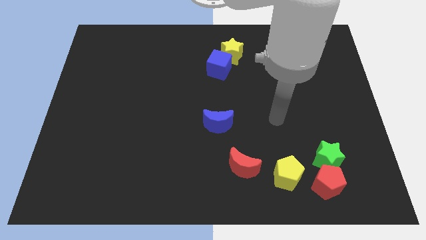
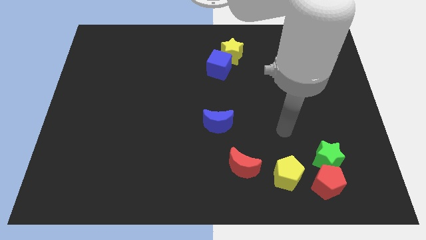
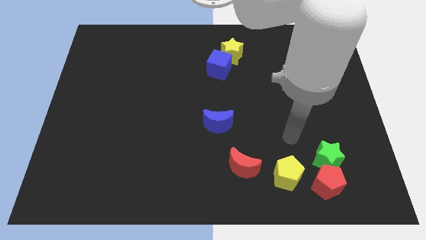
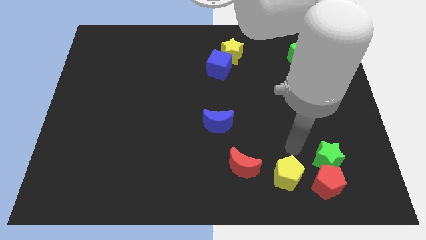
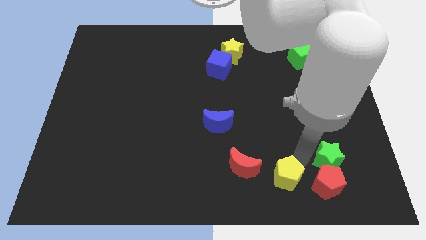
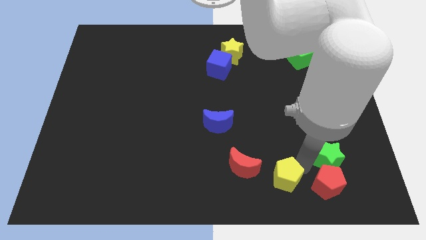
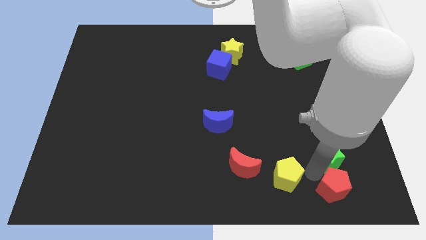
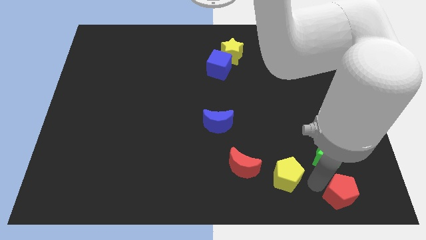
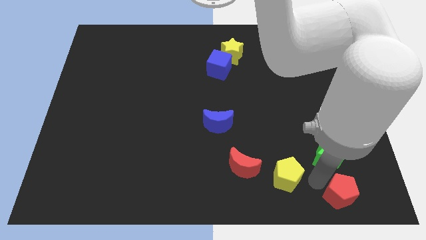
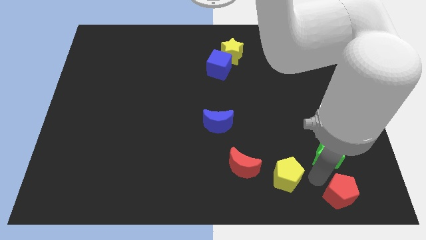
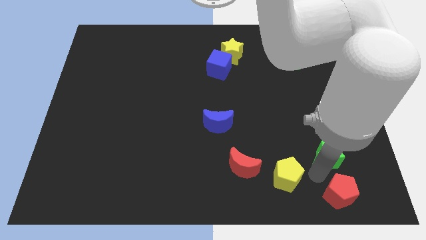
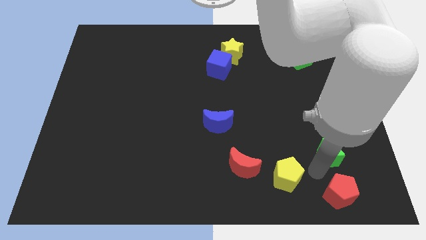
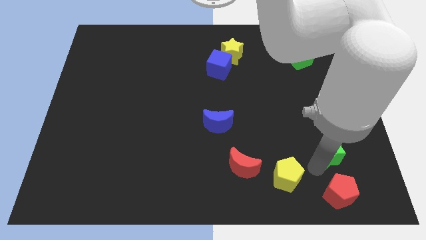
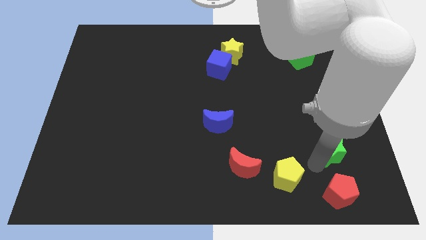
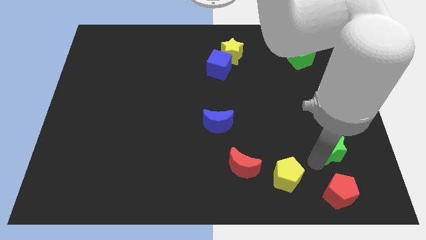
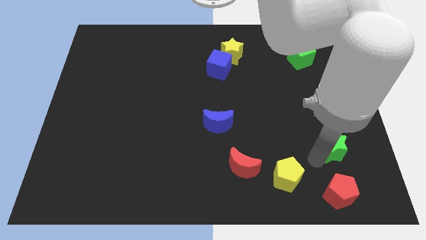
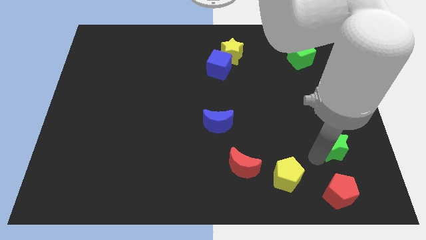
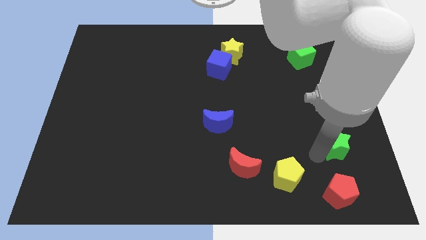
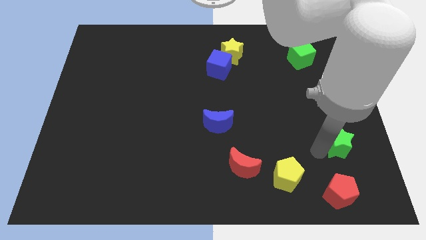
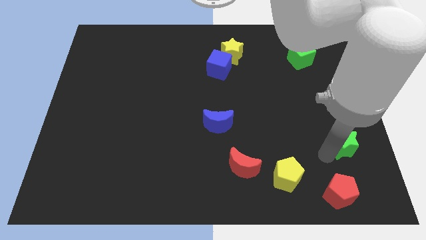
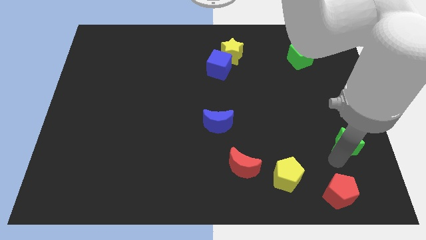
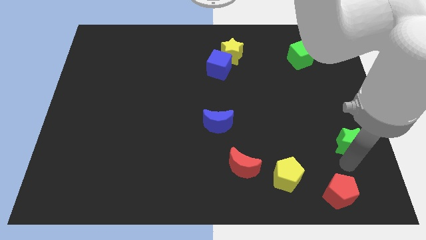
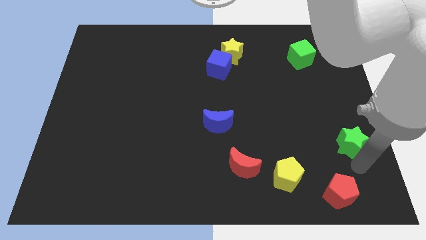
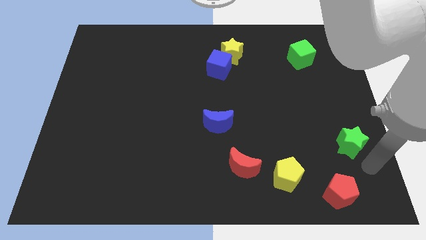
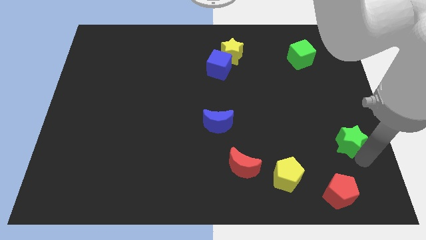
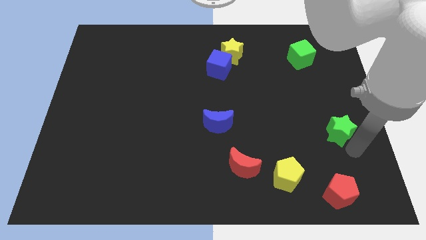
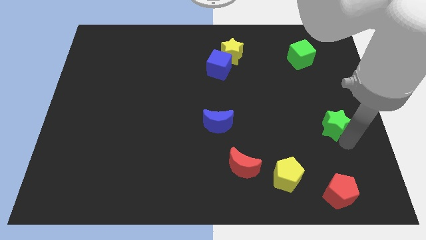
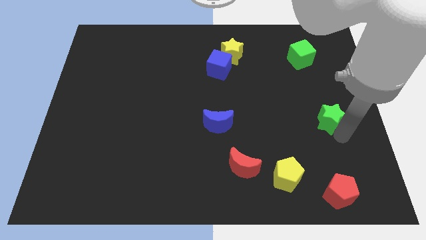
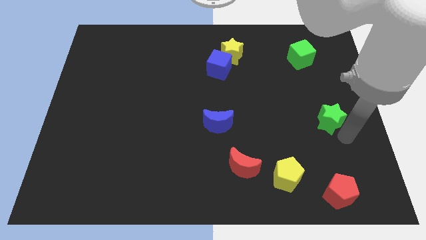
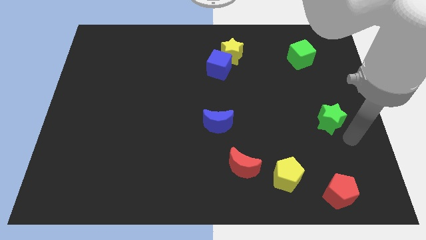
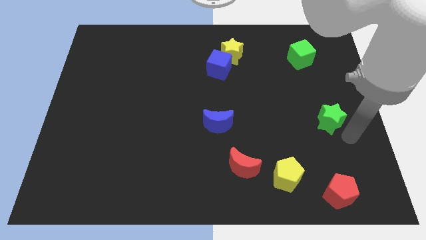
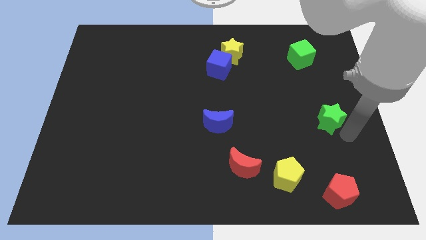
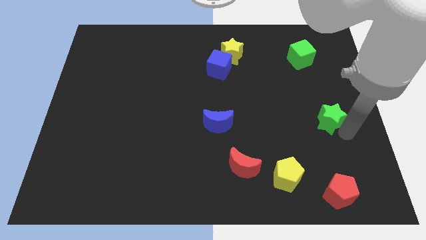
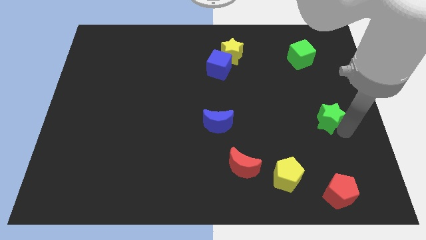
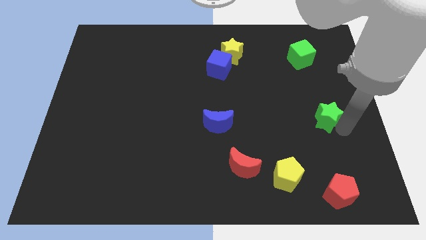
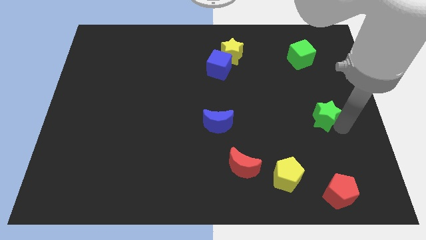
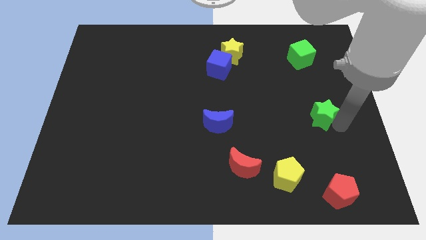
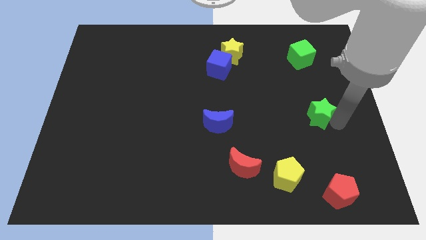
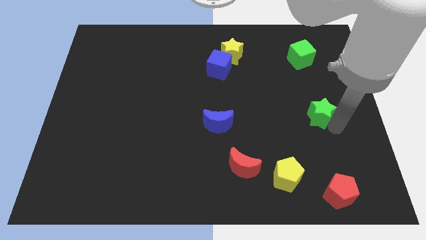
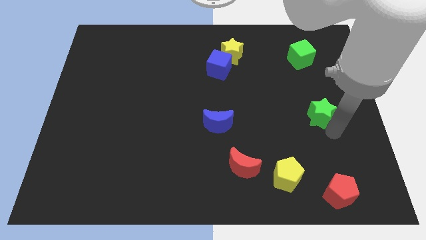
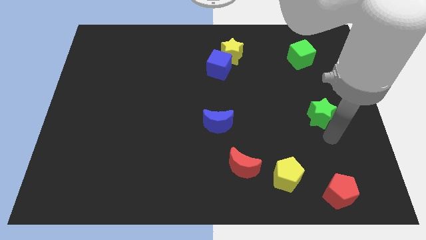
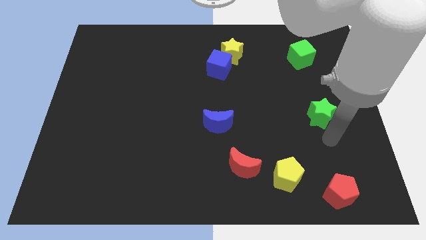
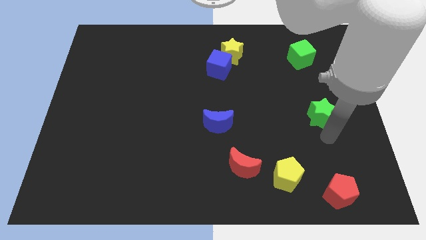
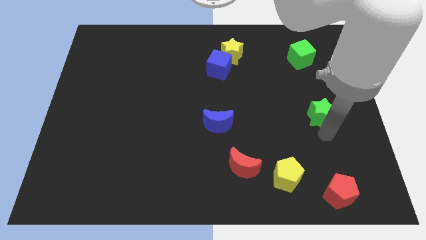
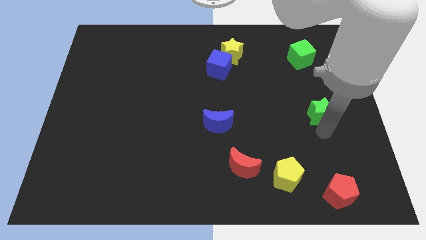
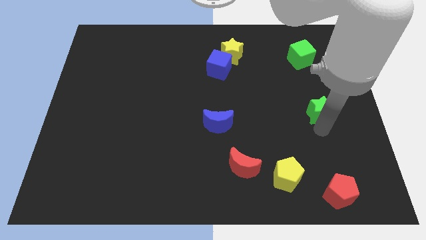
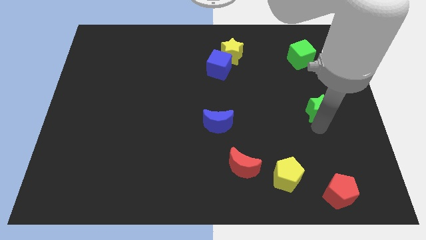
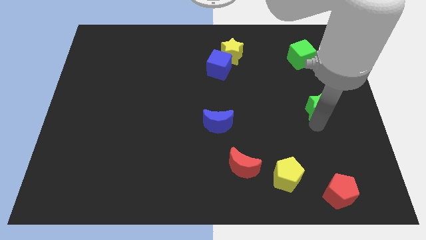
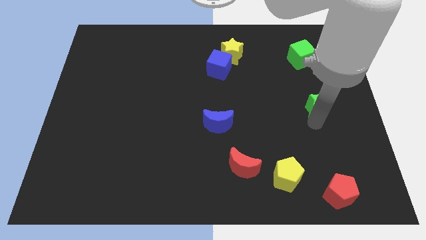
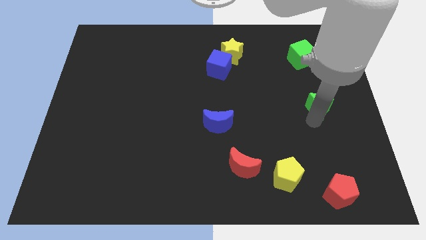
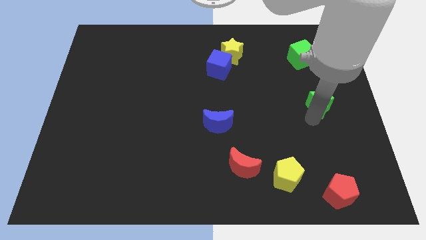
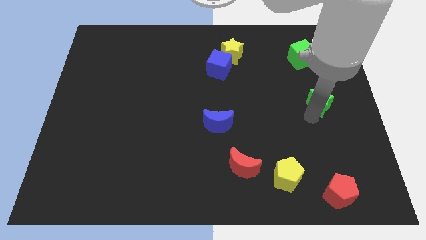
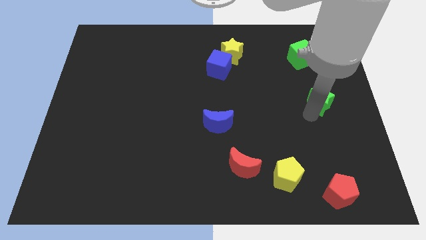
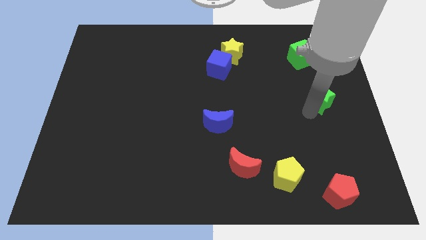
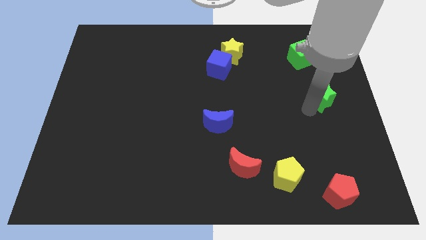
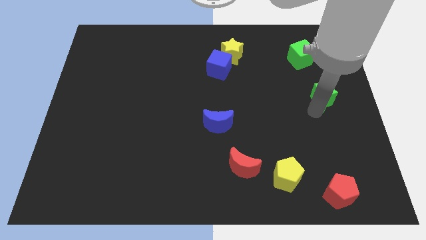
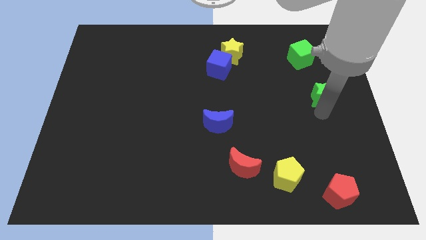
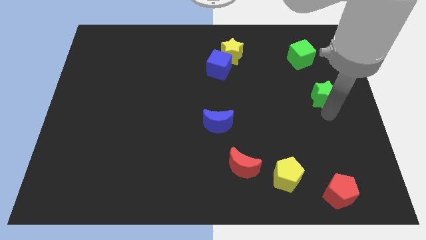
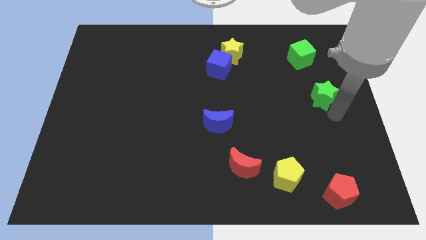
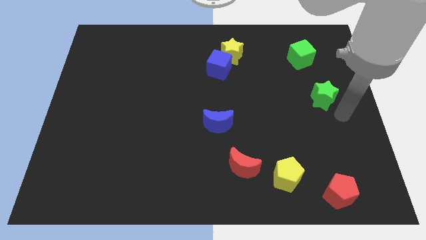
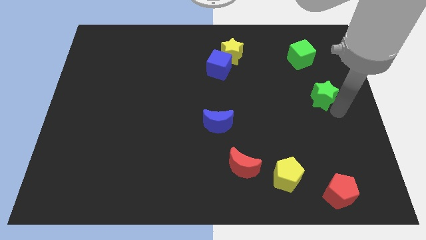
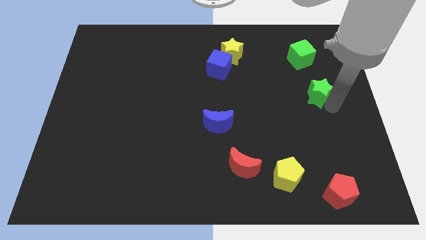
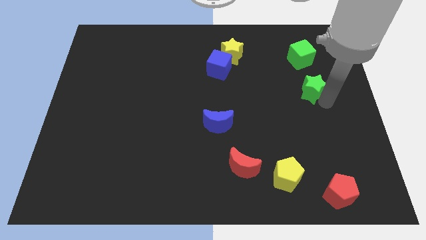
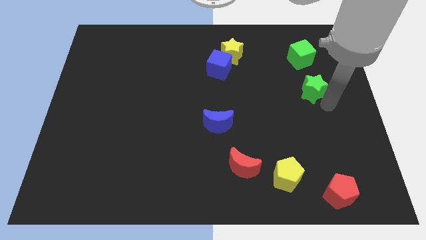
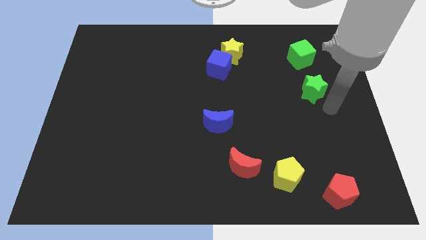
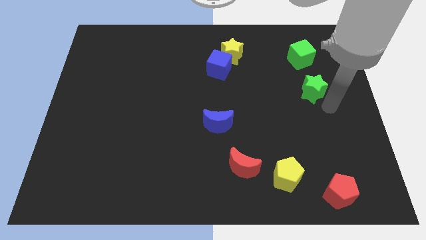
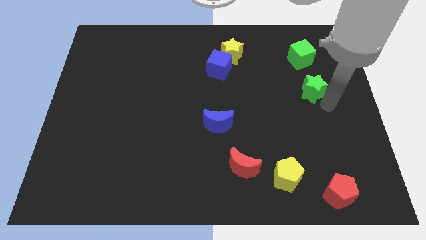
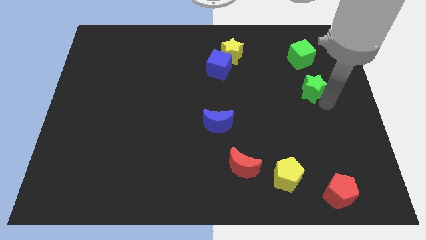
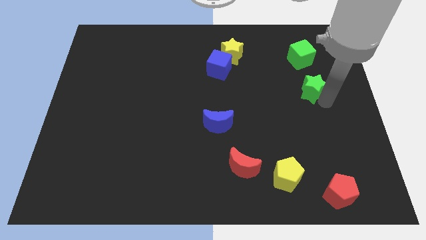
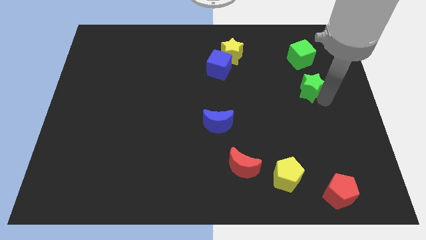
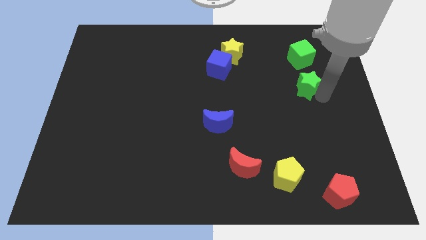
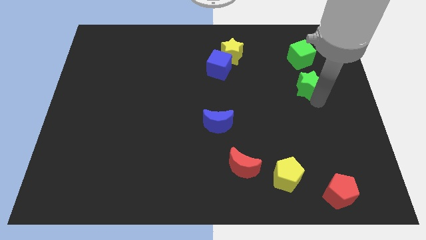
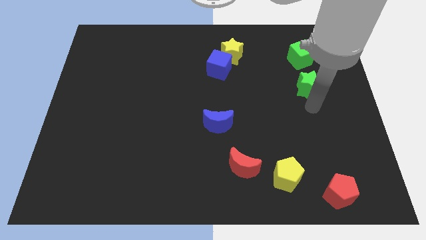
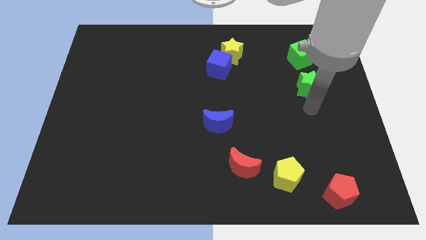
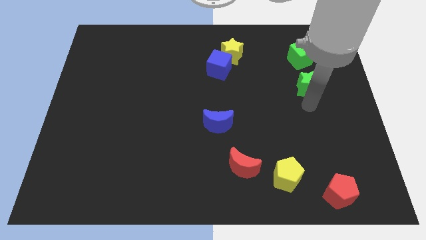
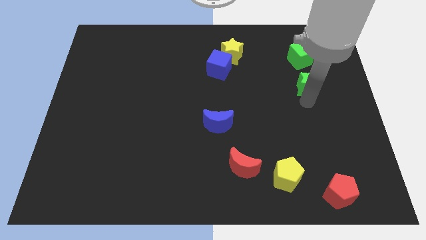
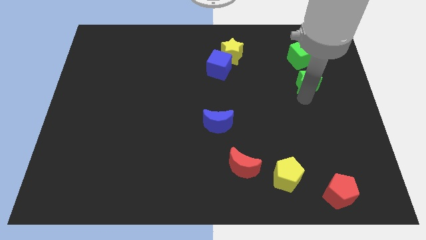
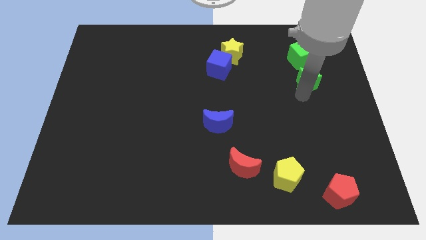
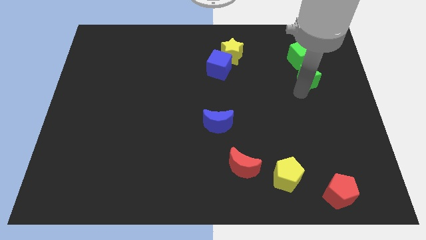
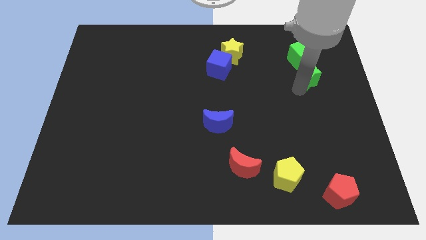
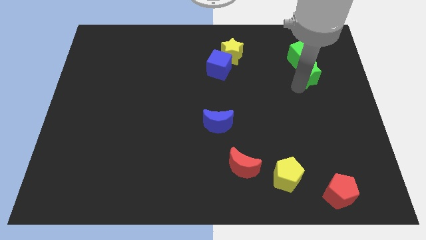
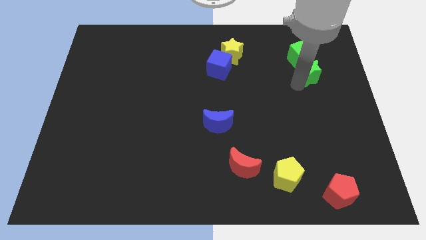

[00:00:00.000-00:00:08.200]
push the green star to the green cube
